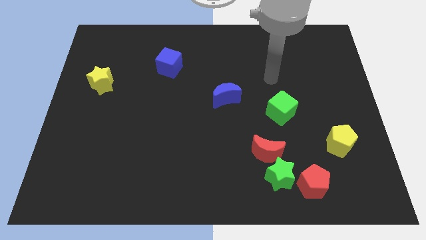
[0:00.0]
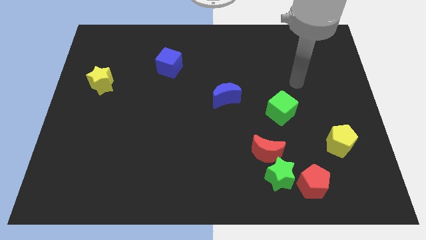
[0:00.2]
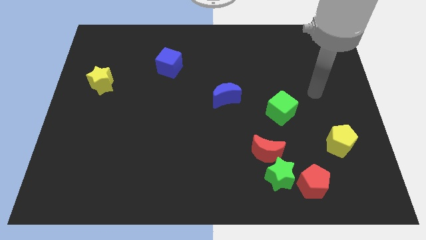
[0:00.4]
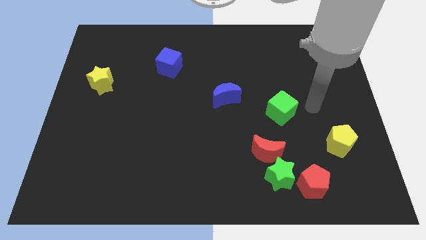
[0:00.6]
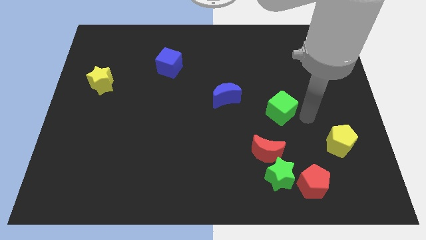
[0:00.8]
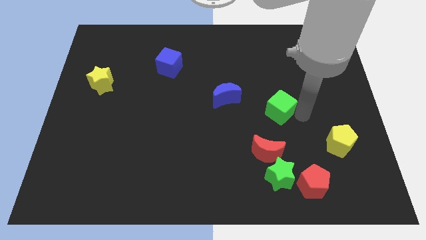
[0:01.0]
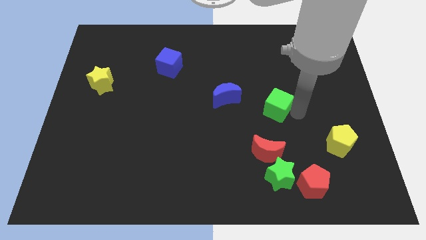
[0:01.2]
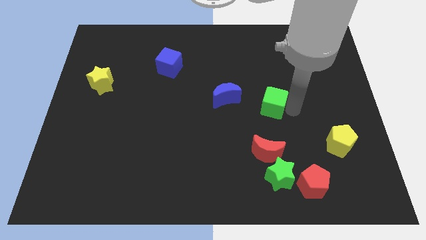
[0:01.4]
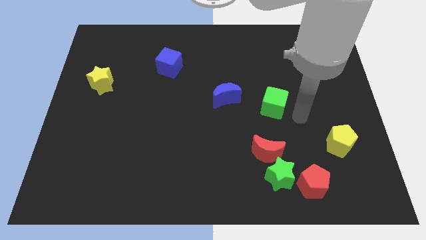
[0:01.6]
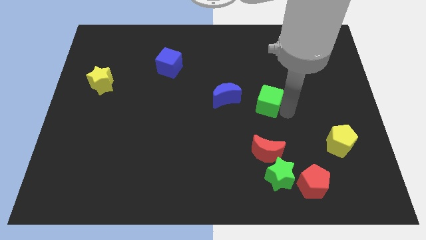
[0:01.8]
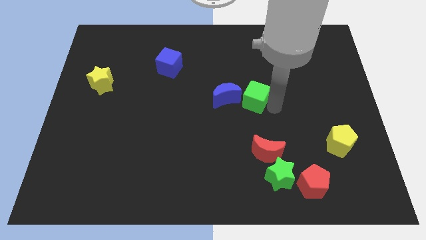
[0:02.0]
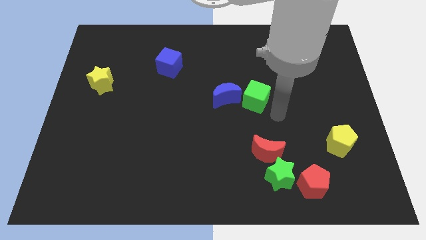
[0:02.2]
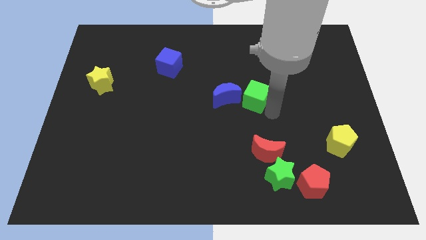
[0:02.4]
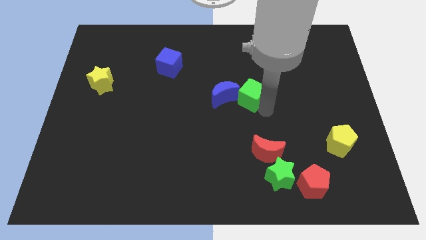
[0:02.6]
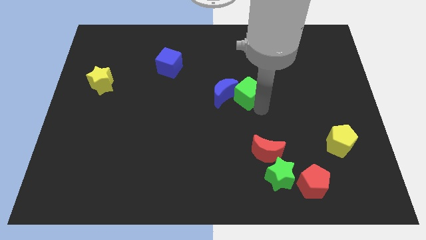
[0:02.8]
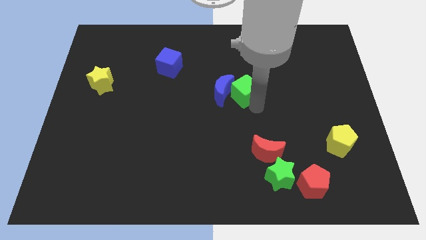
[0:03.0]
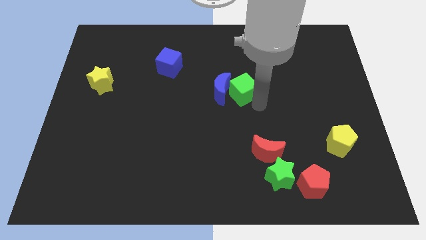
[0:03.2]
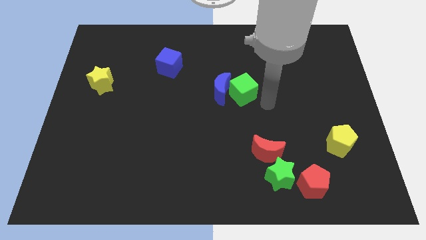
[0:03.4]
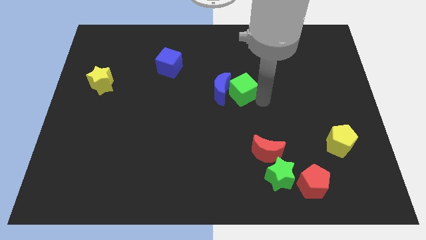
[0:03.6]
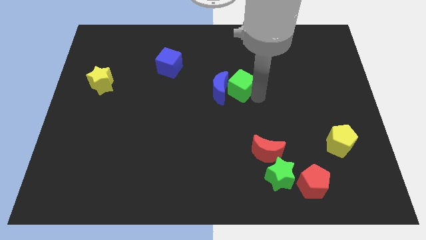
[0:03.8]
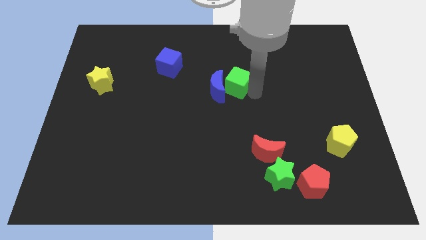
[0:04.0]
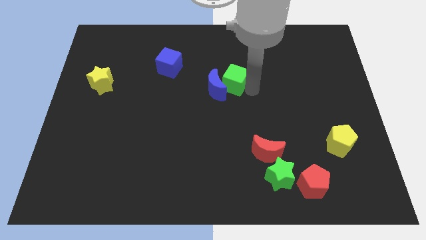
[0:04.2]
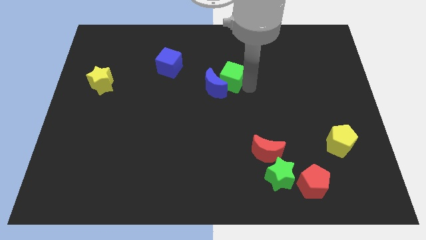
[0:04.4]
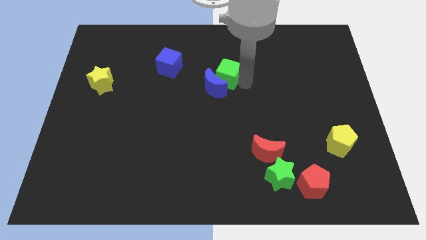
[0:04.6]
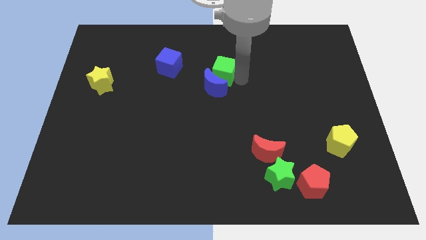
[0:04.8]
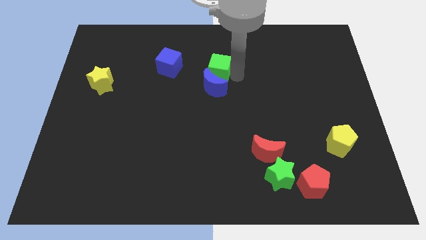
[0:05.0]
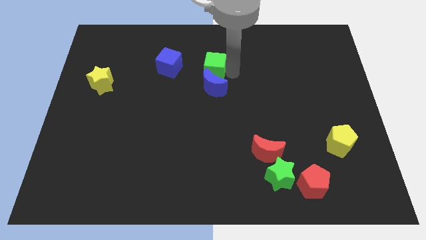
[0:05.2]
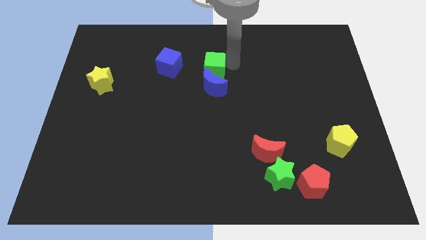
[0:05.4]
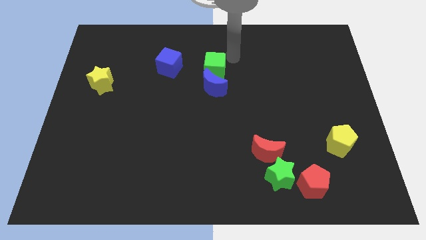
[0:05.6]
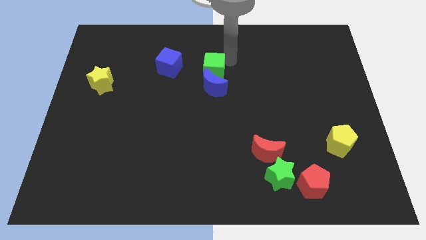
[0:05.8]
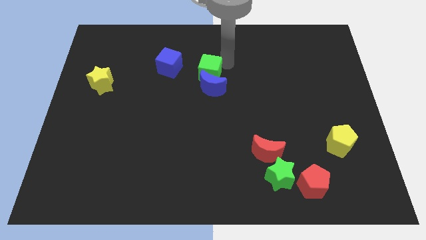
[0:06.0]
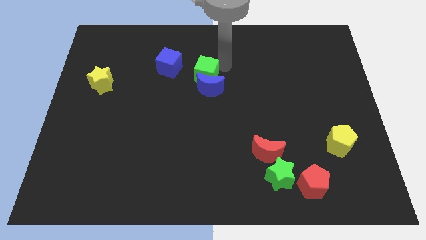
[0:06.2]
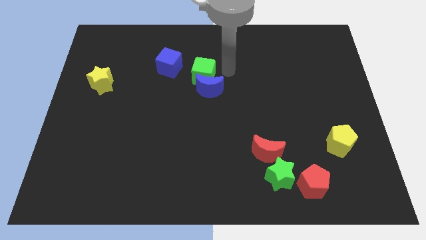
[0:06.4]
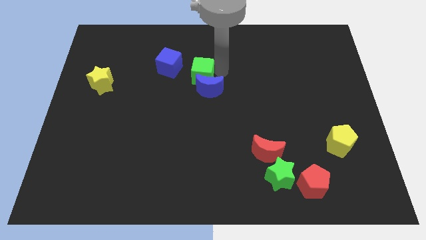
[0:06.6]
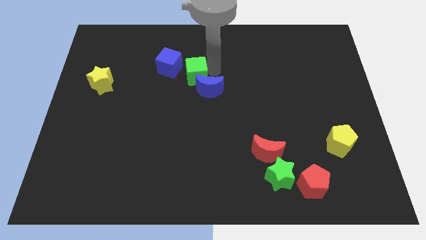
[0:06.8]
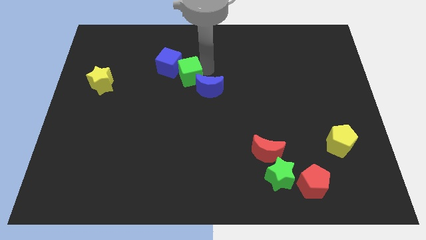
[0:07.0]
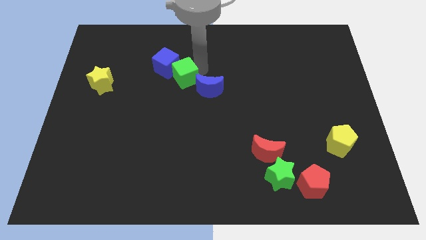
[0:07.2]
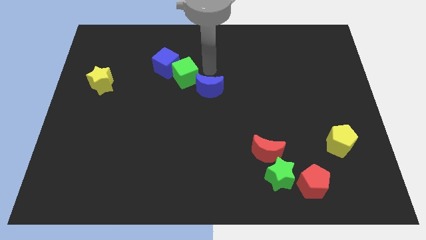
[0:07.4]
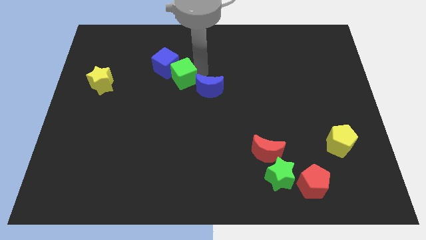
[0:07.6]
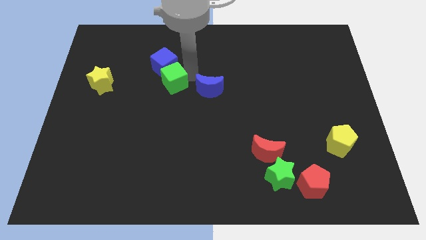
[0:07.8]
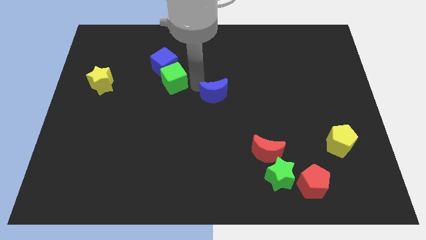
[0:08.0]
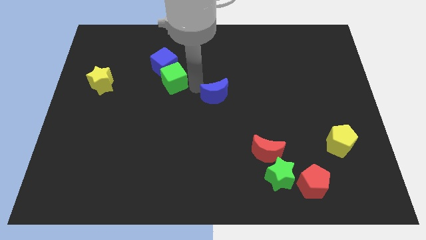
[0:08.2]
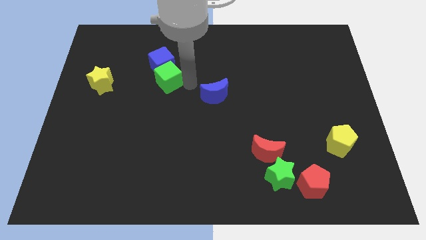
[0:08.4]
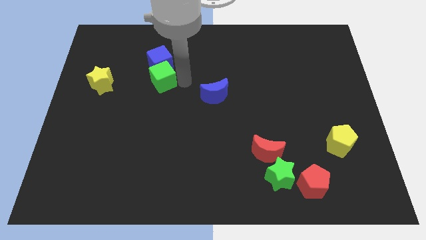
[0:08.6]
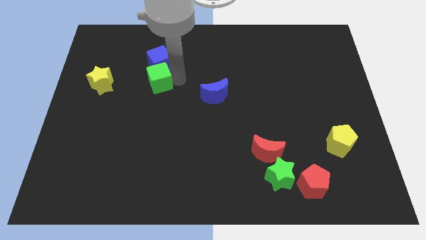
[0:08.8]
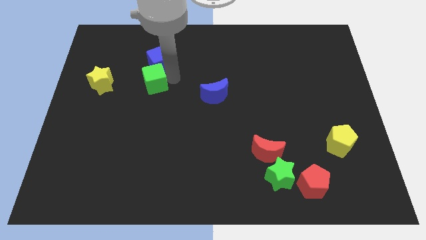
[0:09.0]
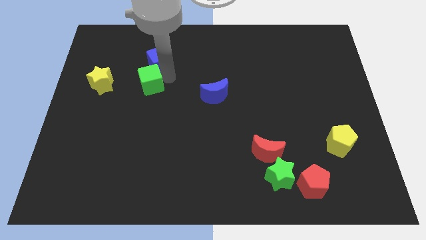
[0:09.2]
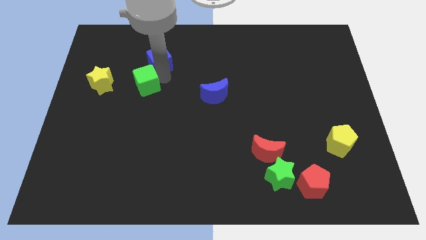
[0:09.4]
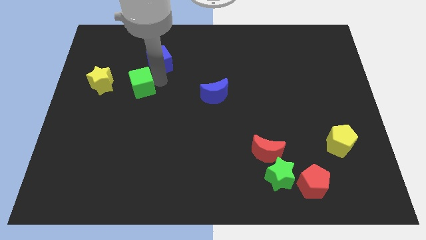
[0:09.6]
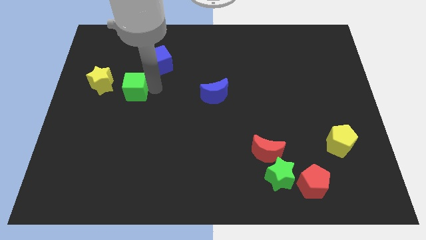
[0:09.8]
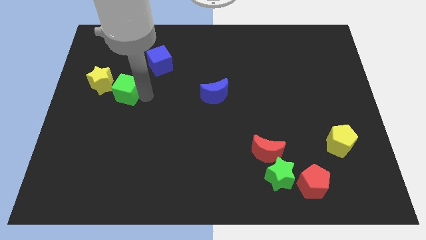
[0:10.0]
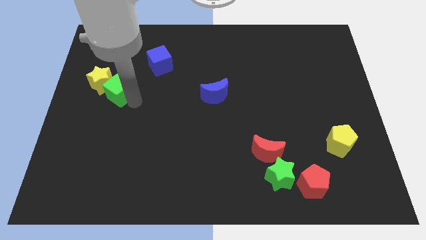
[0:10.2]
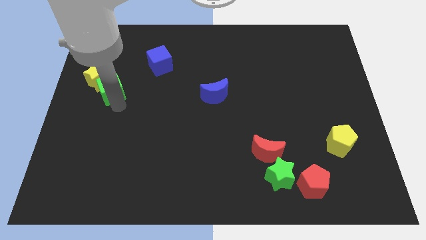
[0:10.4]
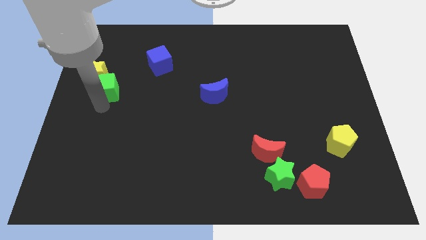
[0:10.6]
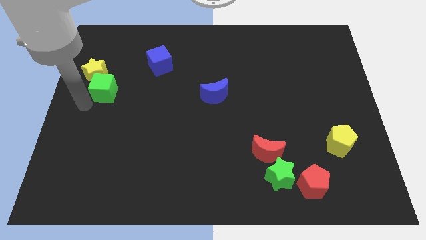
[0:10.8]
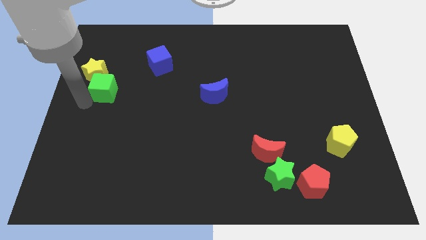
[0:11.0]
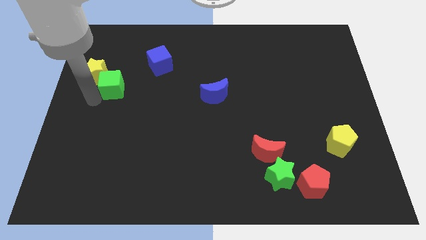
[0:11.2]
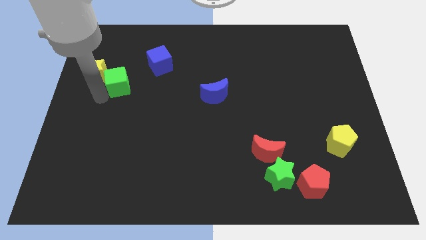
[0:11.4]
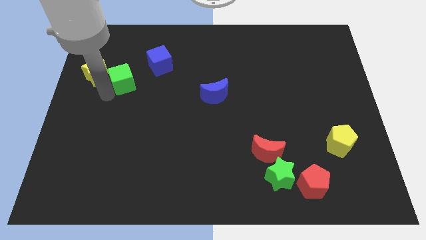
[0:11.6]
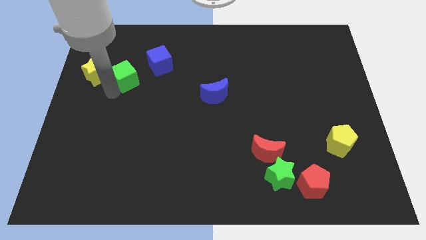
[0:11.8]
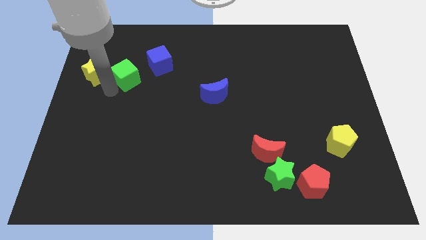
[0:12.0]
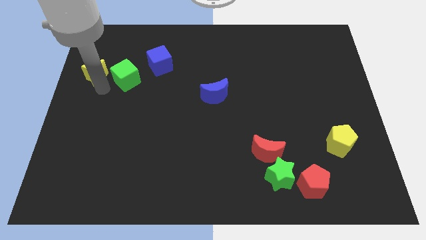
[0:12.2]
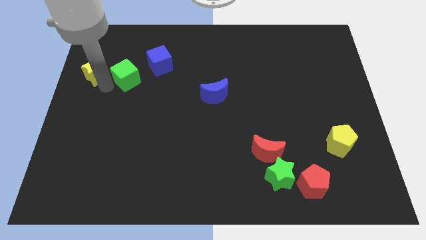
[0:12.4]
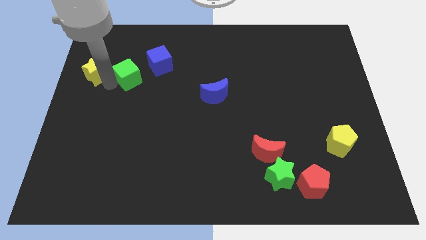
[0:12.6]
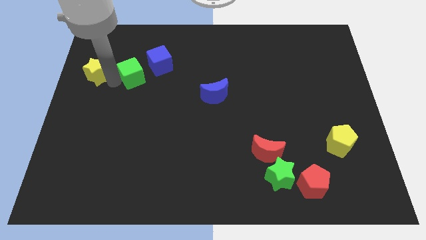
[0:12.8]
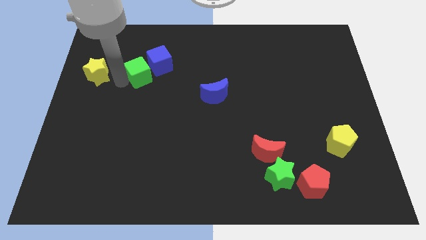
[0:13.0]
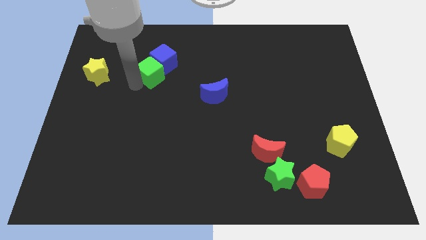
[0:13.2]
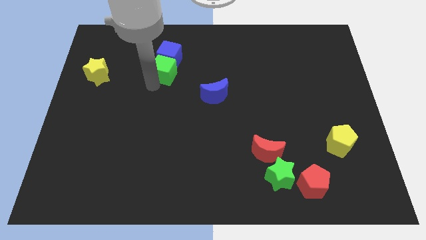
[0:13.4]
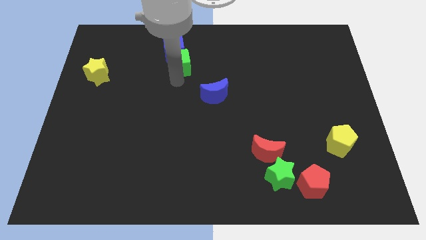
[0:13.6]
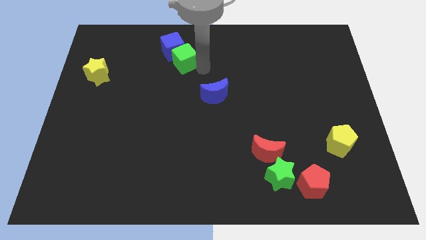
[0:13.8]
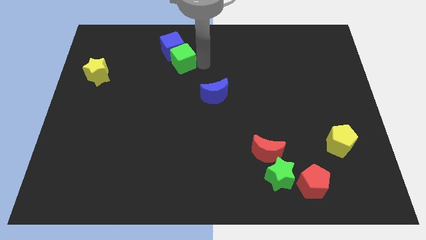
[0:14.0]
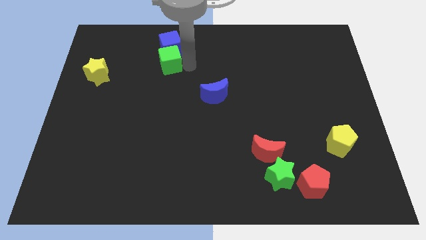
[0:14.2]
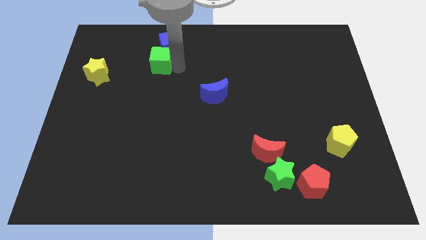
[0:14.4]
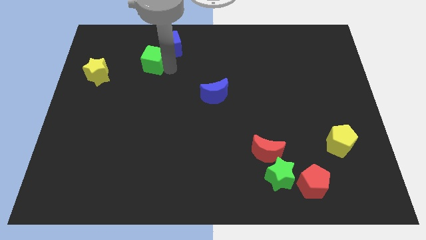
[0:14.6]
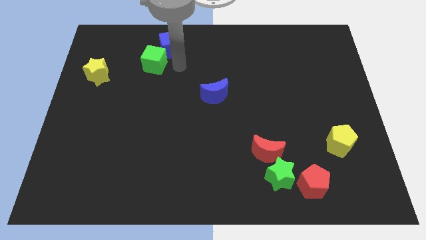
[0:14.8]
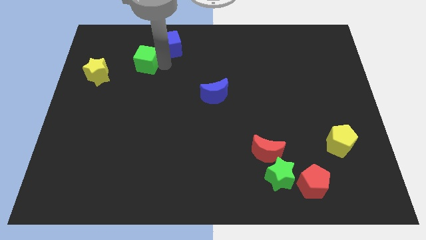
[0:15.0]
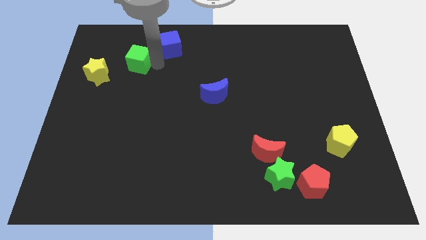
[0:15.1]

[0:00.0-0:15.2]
push the green cube diagonally up and to the right of the yellow star

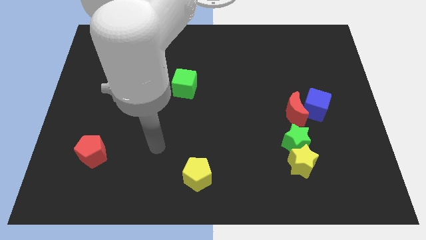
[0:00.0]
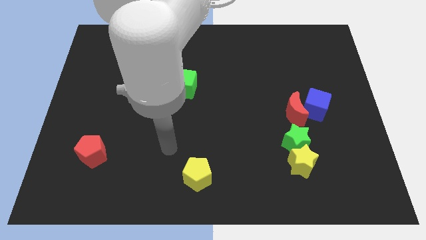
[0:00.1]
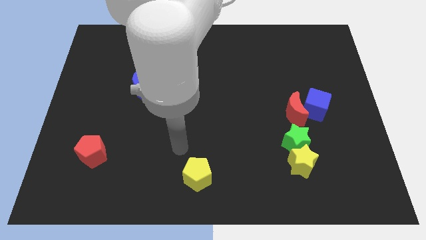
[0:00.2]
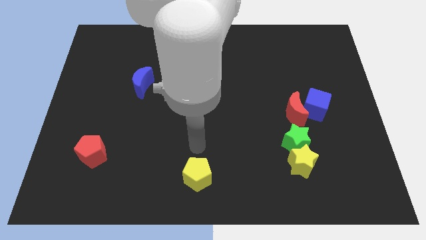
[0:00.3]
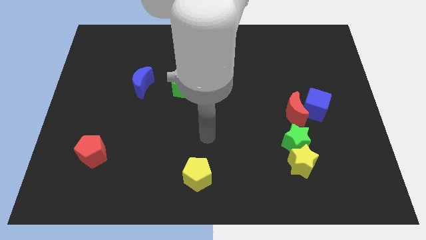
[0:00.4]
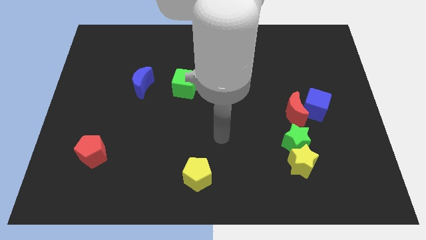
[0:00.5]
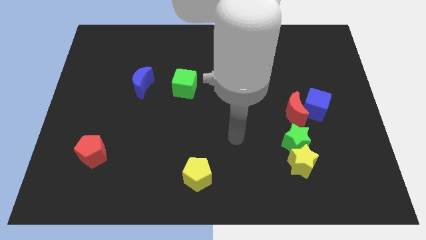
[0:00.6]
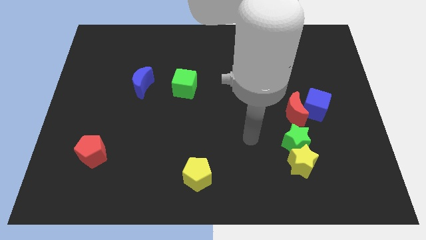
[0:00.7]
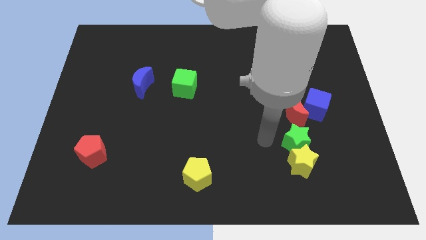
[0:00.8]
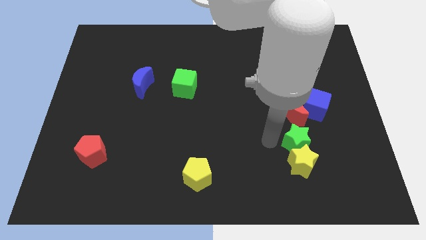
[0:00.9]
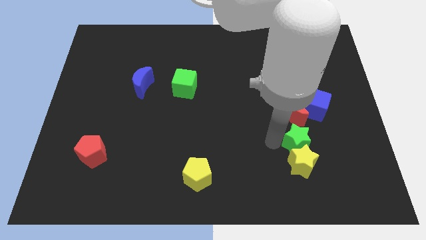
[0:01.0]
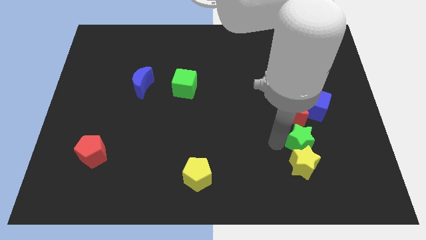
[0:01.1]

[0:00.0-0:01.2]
move the green star to the bottom side of the blue cube
